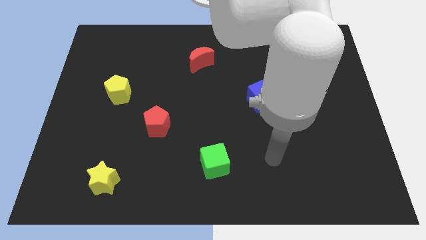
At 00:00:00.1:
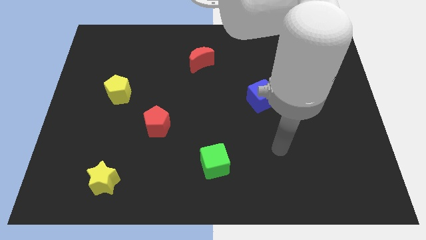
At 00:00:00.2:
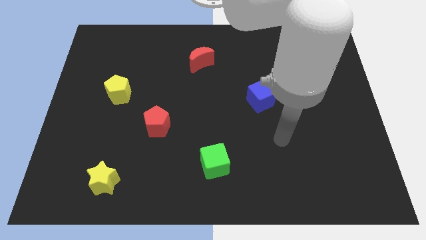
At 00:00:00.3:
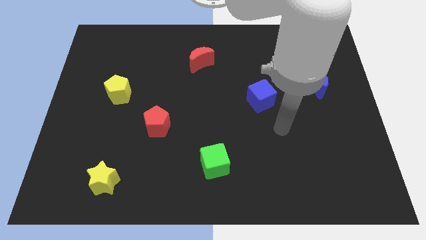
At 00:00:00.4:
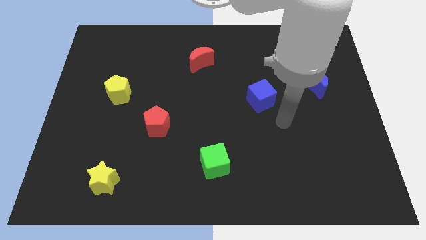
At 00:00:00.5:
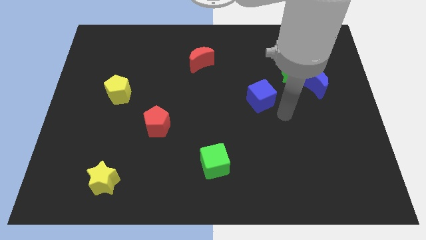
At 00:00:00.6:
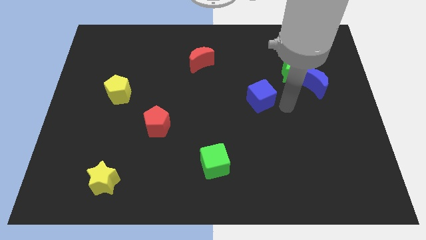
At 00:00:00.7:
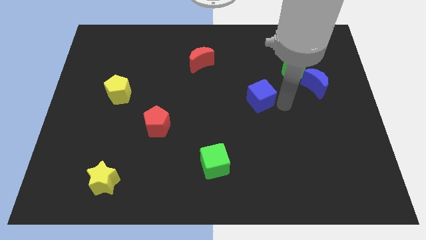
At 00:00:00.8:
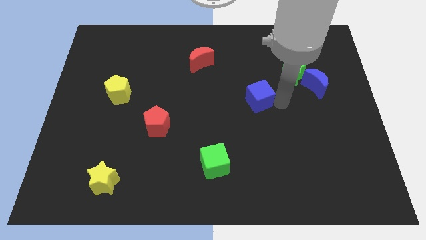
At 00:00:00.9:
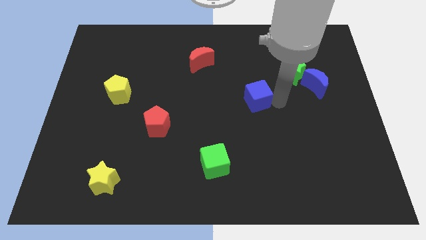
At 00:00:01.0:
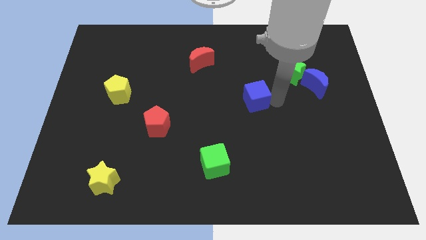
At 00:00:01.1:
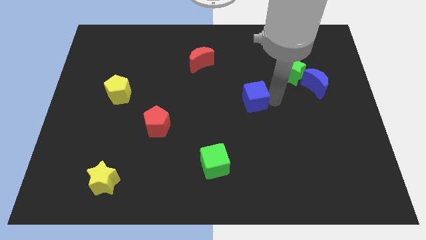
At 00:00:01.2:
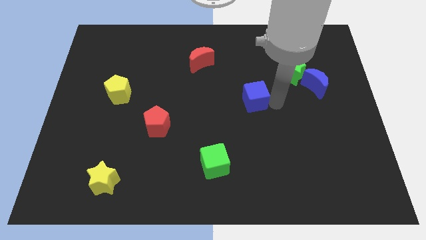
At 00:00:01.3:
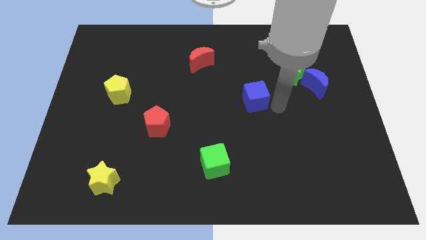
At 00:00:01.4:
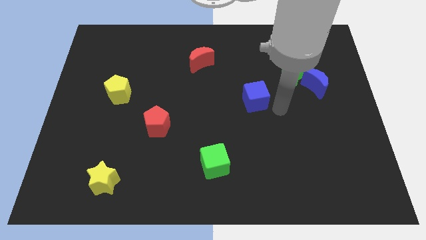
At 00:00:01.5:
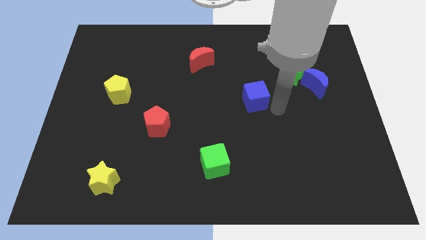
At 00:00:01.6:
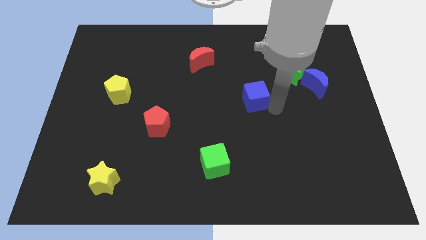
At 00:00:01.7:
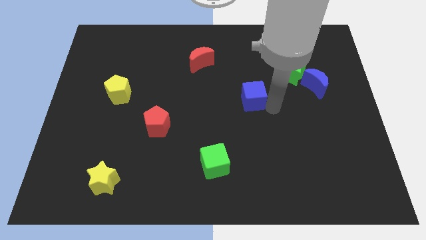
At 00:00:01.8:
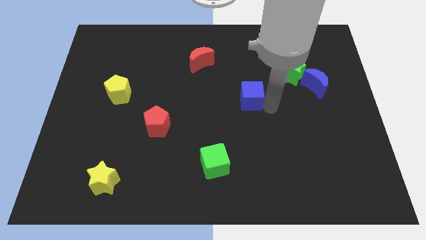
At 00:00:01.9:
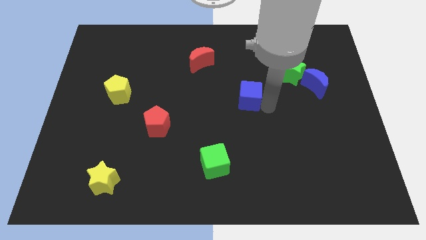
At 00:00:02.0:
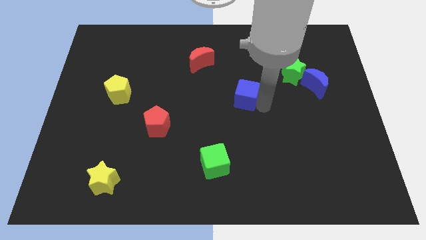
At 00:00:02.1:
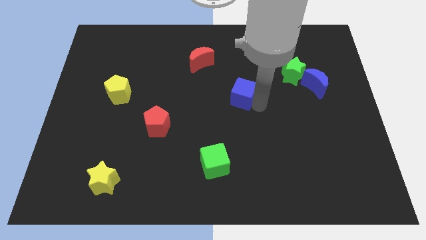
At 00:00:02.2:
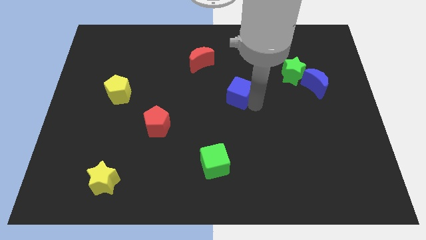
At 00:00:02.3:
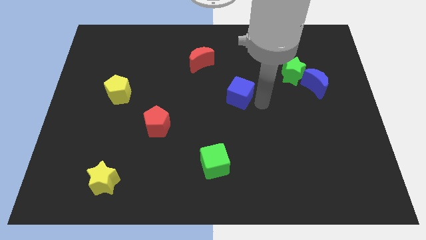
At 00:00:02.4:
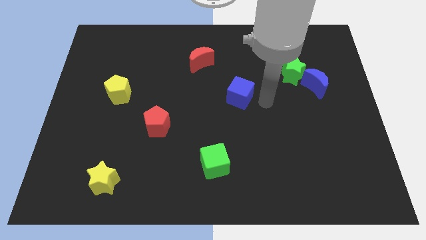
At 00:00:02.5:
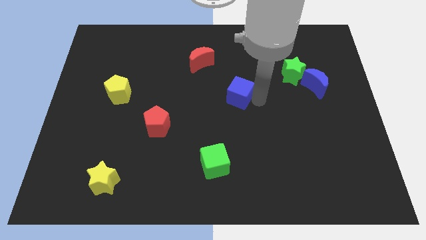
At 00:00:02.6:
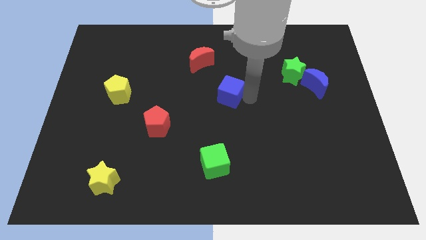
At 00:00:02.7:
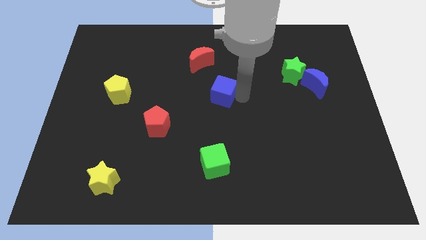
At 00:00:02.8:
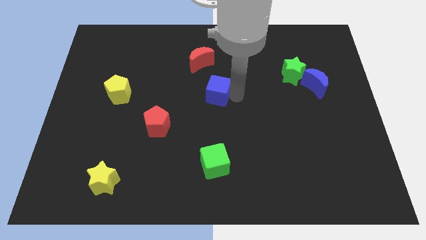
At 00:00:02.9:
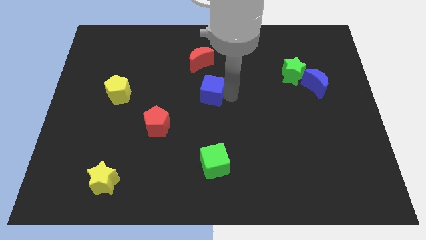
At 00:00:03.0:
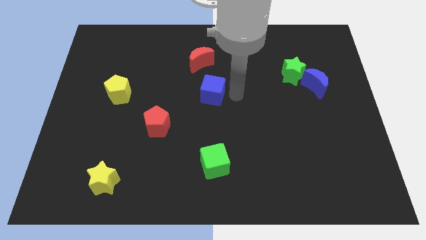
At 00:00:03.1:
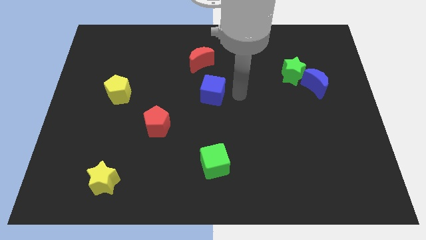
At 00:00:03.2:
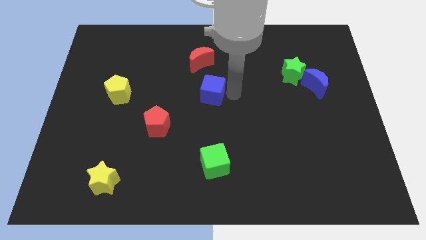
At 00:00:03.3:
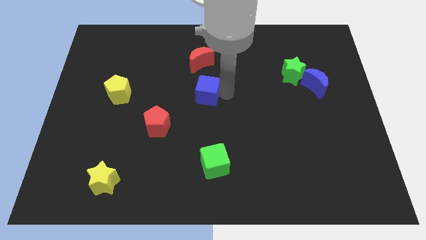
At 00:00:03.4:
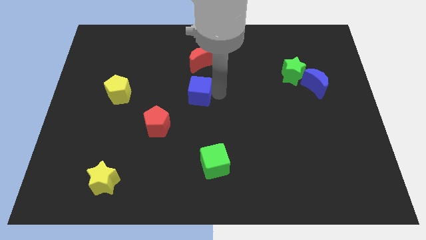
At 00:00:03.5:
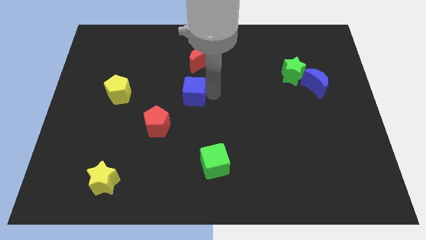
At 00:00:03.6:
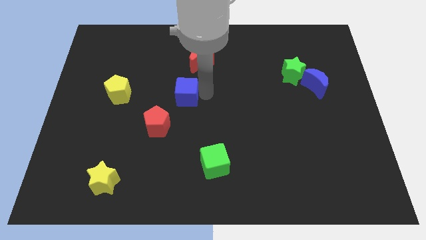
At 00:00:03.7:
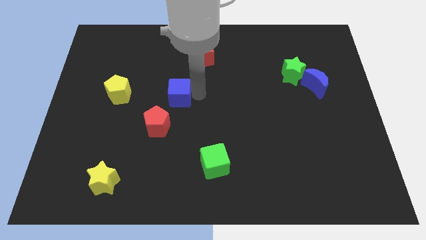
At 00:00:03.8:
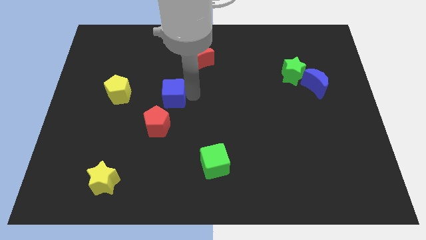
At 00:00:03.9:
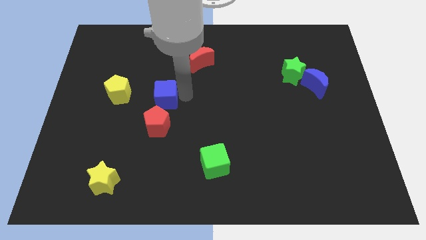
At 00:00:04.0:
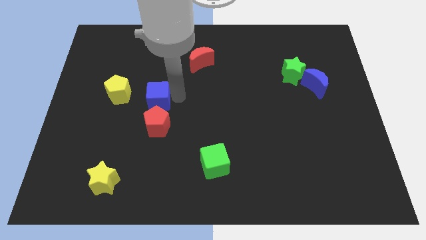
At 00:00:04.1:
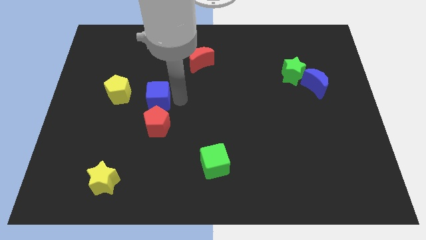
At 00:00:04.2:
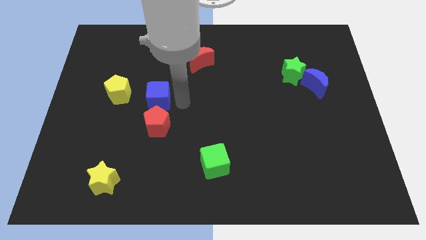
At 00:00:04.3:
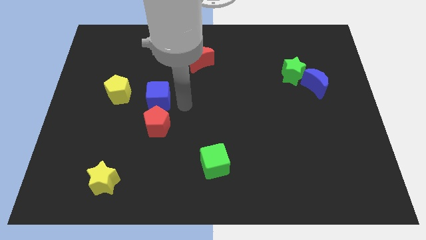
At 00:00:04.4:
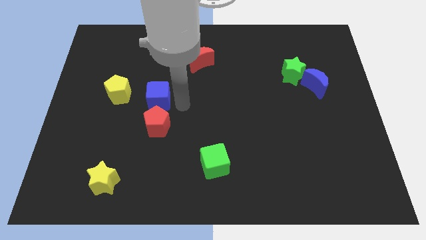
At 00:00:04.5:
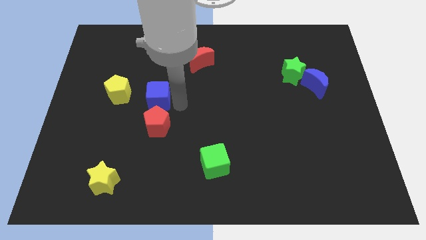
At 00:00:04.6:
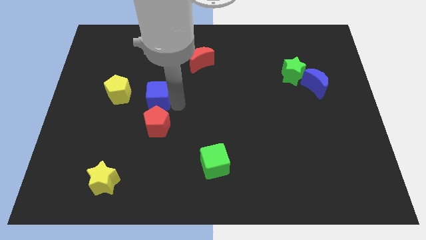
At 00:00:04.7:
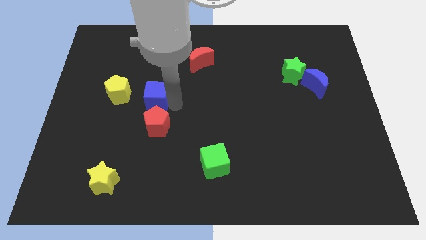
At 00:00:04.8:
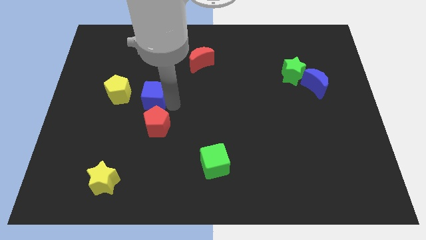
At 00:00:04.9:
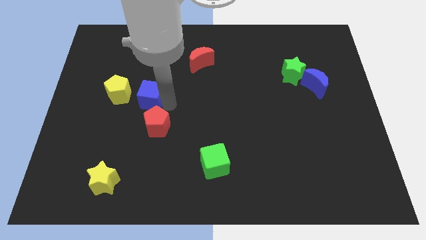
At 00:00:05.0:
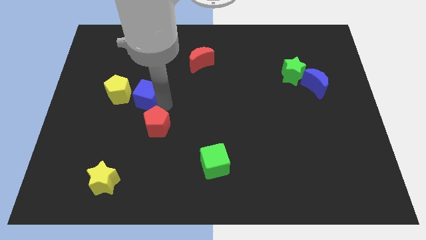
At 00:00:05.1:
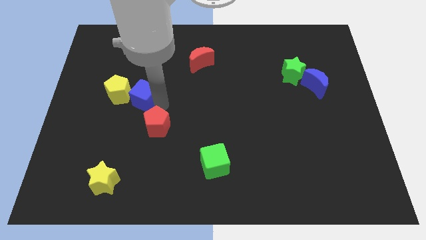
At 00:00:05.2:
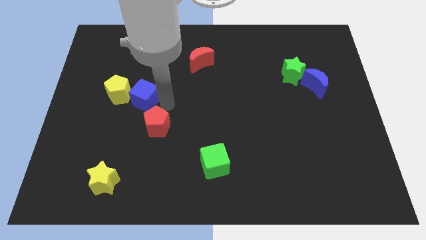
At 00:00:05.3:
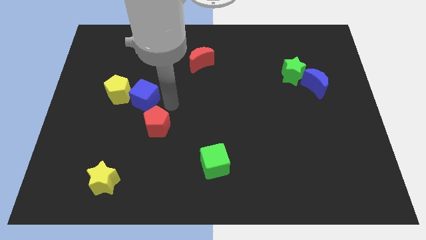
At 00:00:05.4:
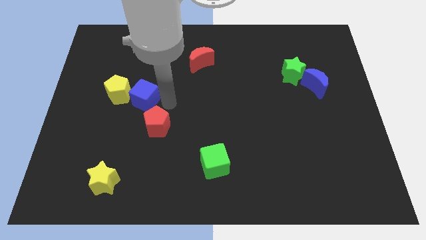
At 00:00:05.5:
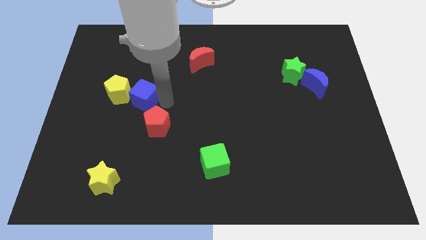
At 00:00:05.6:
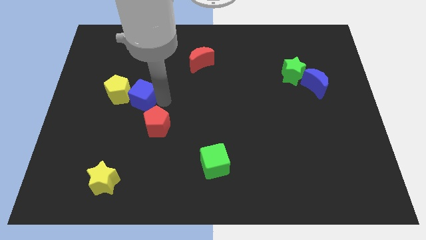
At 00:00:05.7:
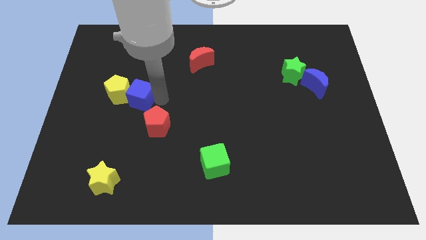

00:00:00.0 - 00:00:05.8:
put the blue cube towards the yellow pentagon

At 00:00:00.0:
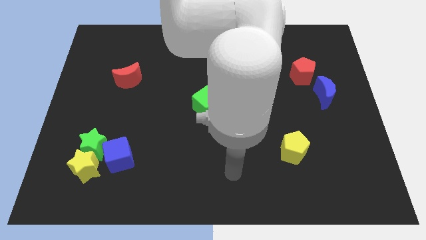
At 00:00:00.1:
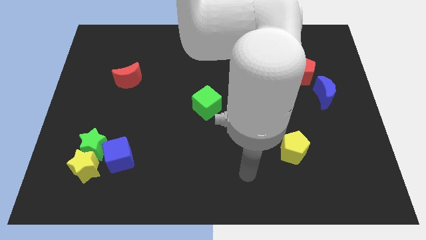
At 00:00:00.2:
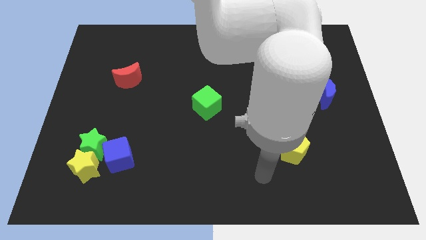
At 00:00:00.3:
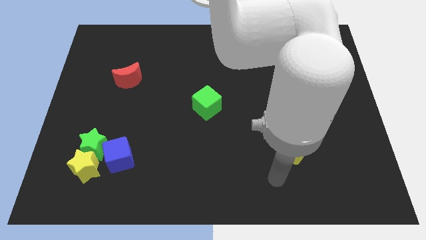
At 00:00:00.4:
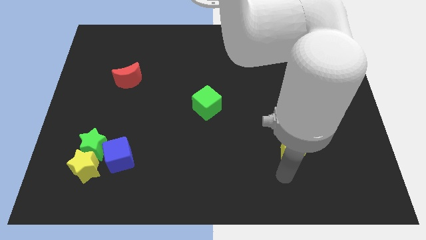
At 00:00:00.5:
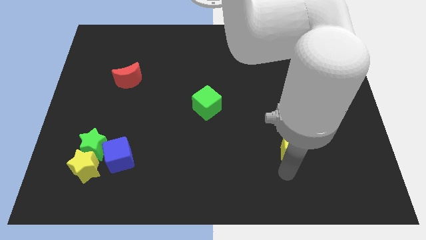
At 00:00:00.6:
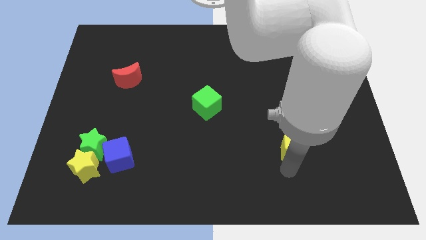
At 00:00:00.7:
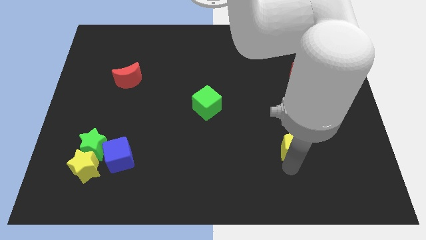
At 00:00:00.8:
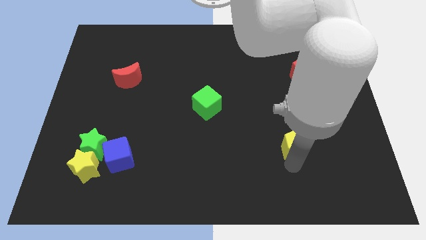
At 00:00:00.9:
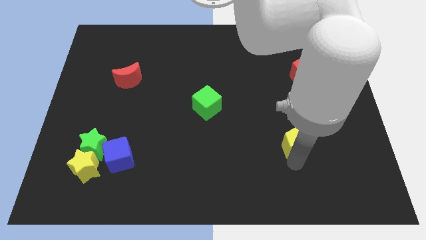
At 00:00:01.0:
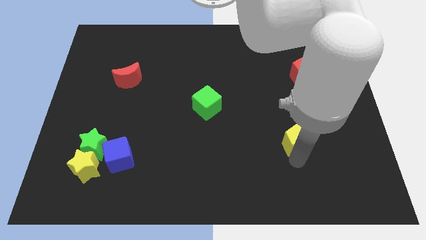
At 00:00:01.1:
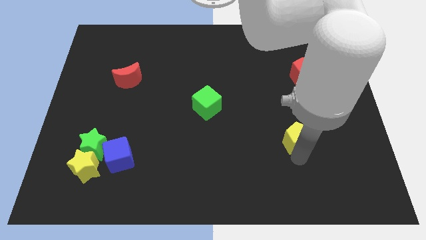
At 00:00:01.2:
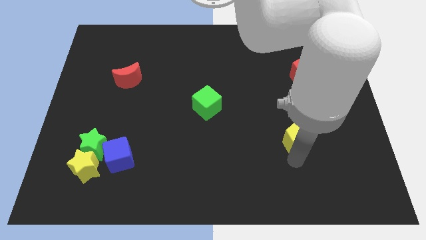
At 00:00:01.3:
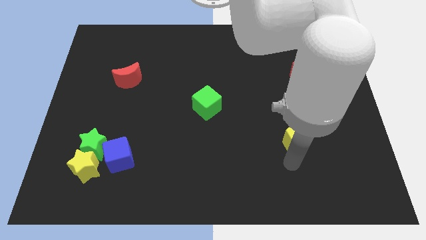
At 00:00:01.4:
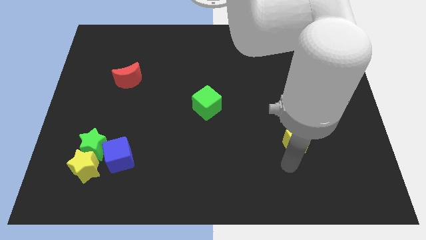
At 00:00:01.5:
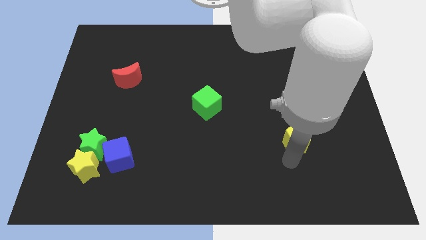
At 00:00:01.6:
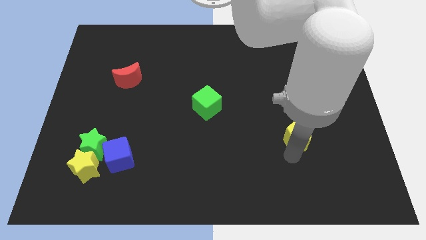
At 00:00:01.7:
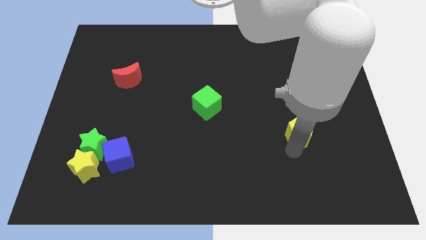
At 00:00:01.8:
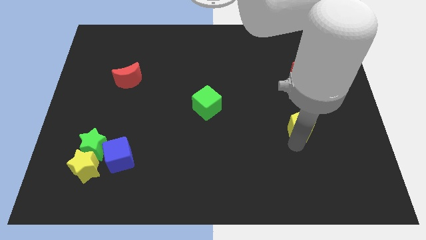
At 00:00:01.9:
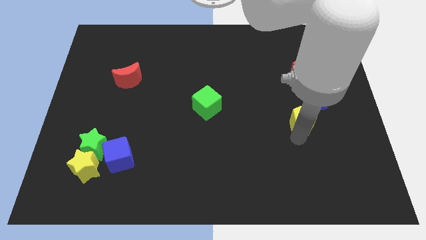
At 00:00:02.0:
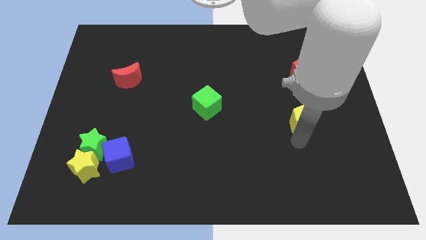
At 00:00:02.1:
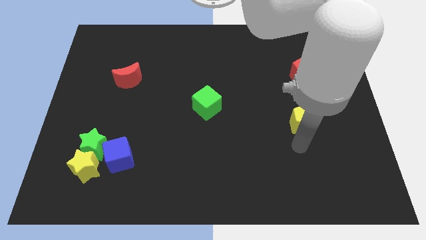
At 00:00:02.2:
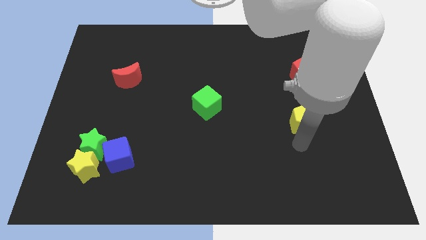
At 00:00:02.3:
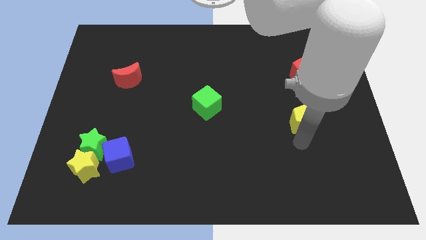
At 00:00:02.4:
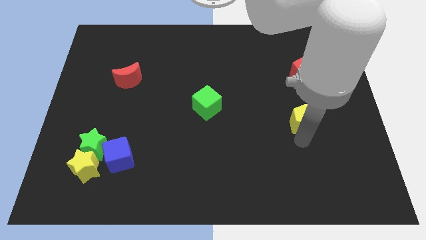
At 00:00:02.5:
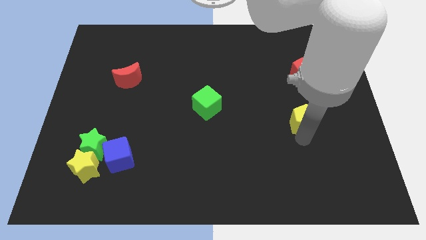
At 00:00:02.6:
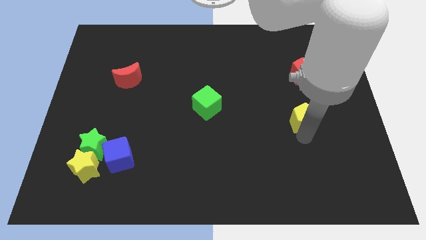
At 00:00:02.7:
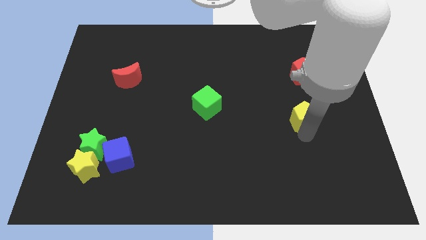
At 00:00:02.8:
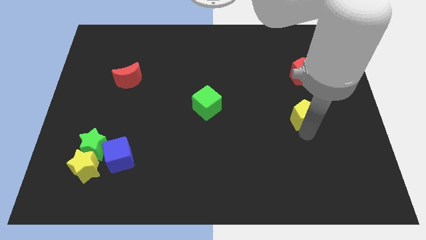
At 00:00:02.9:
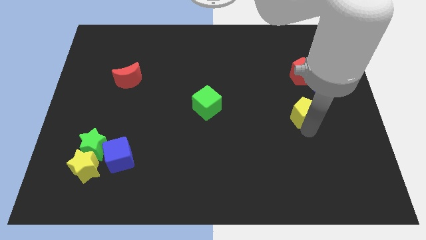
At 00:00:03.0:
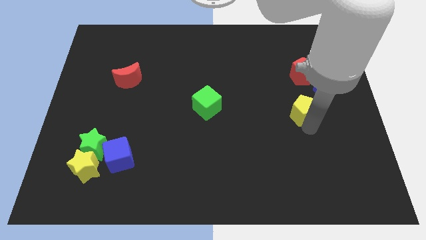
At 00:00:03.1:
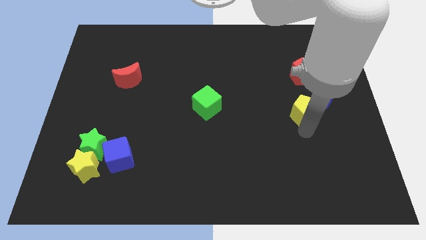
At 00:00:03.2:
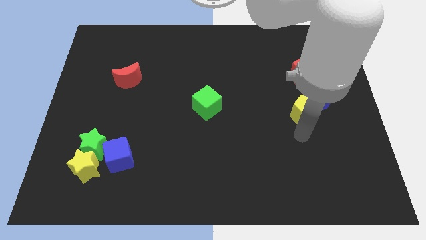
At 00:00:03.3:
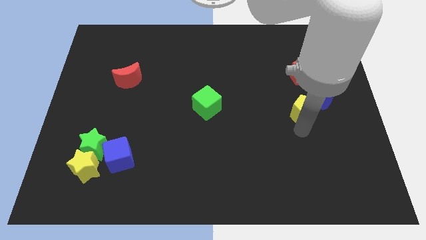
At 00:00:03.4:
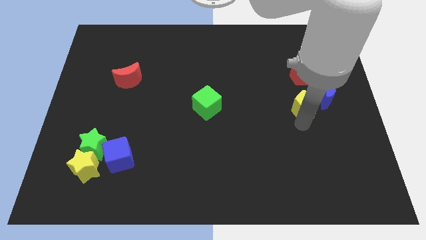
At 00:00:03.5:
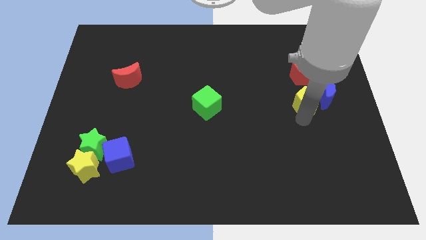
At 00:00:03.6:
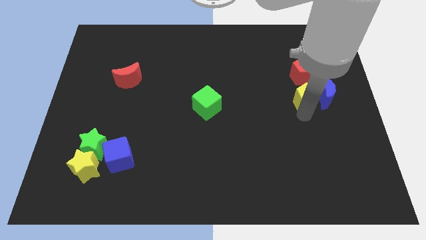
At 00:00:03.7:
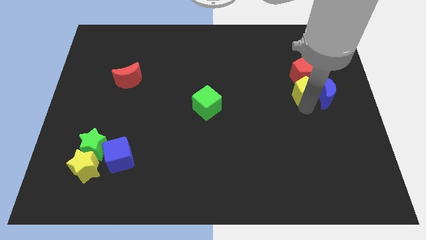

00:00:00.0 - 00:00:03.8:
move the yellow pentagon to the red pentagon
